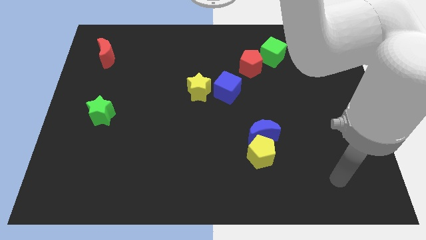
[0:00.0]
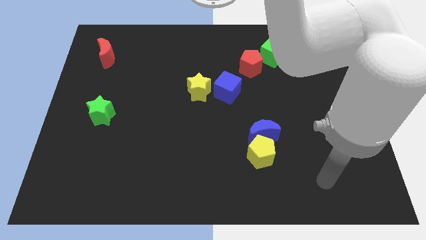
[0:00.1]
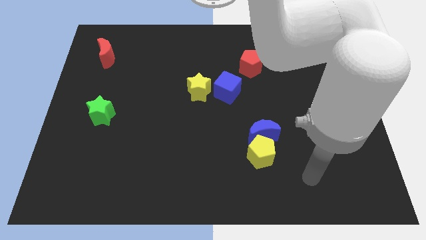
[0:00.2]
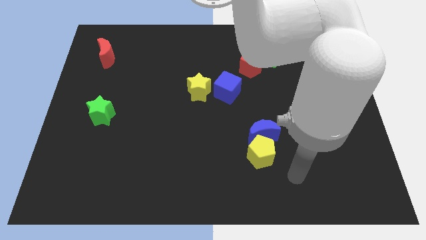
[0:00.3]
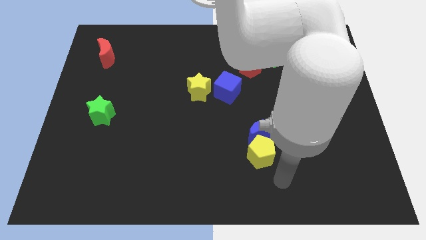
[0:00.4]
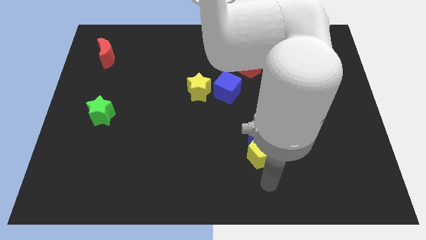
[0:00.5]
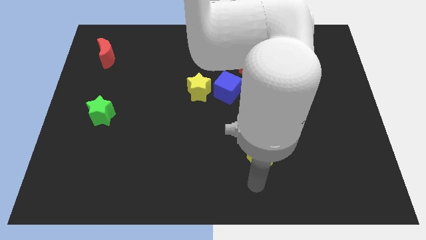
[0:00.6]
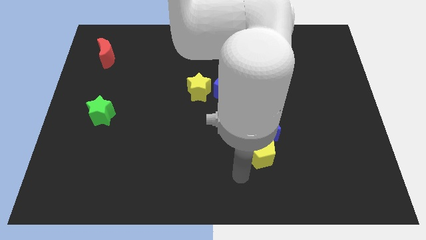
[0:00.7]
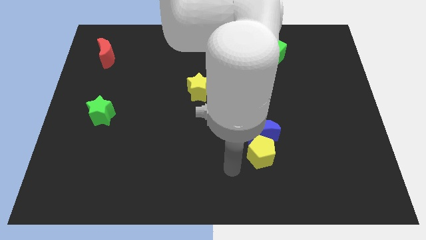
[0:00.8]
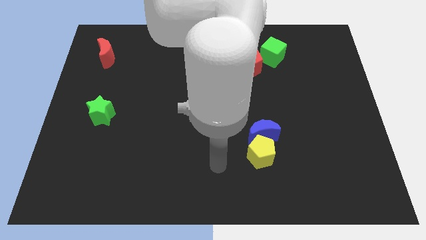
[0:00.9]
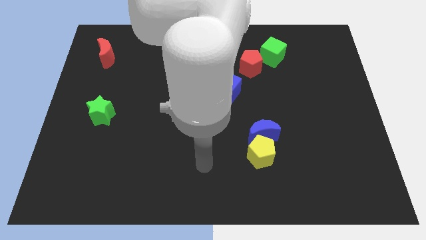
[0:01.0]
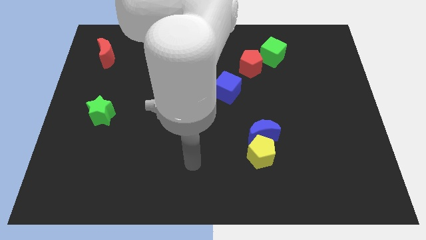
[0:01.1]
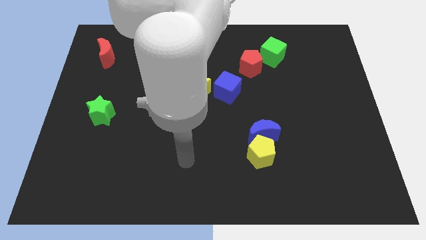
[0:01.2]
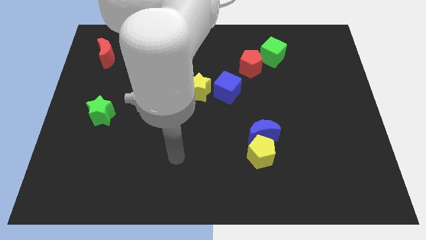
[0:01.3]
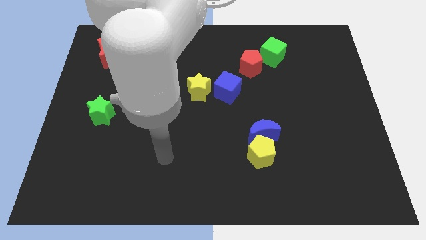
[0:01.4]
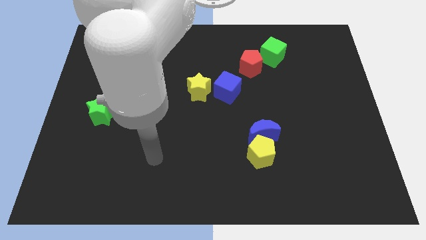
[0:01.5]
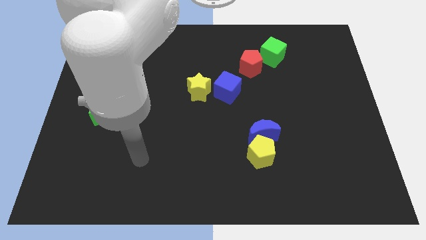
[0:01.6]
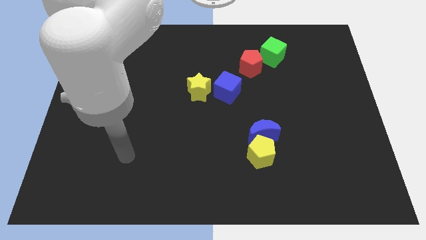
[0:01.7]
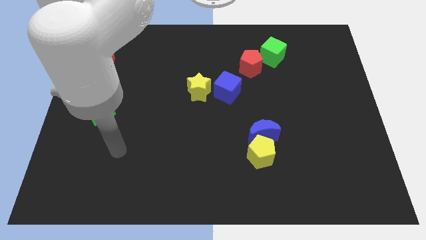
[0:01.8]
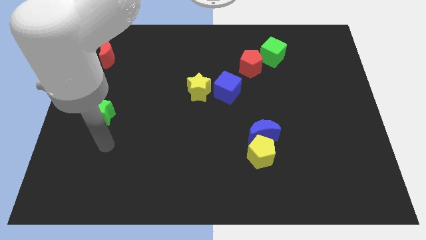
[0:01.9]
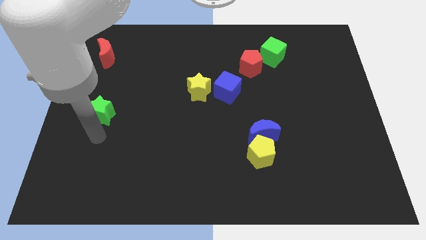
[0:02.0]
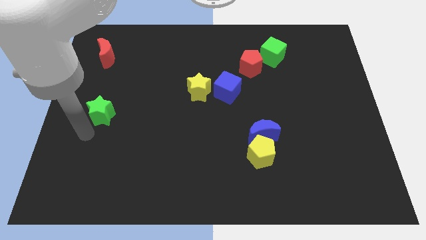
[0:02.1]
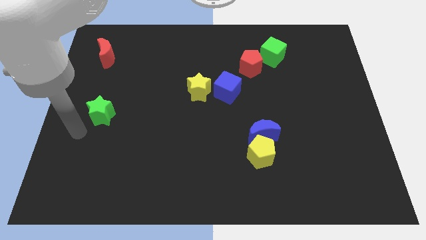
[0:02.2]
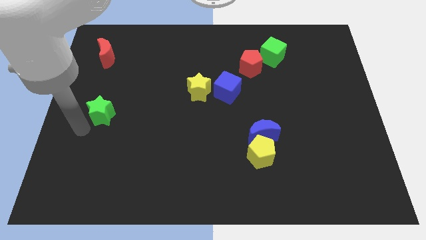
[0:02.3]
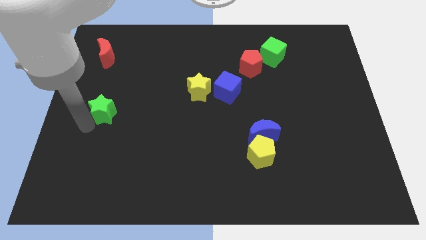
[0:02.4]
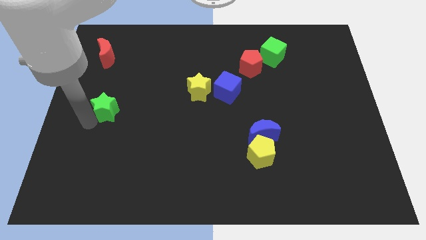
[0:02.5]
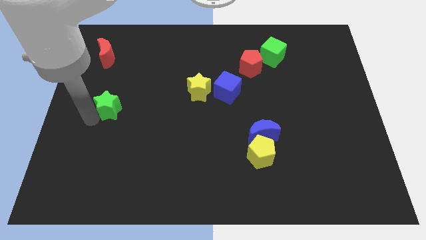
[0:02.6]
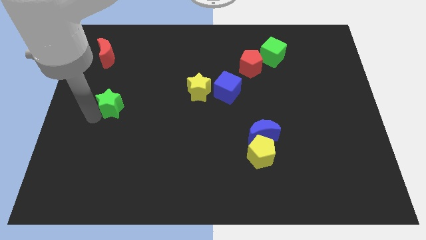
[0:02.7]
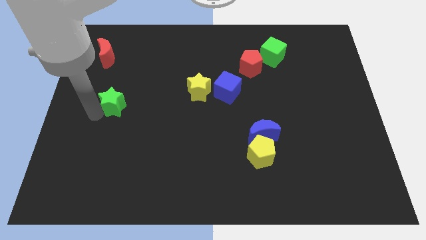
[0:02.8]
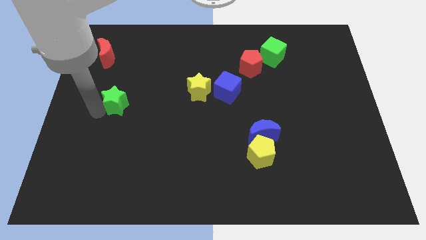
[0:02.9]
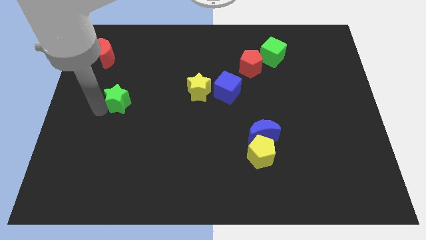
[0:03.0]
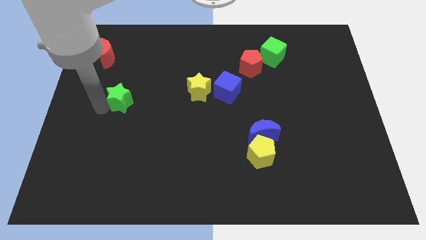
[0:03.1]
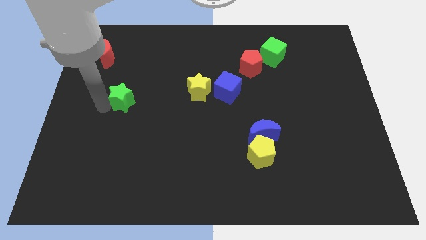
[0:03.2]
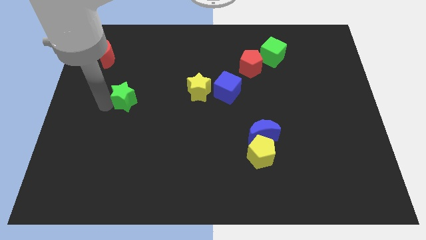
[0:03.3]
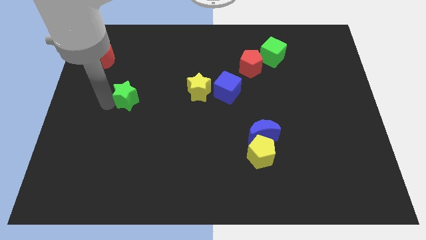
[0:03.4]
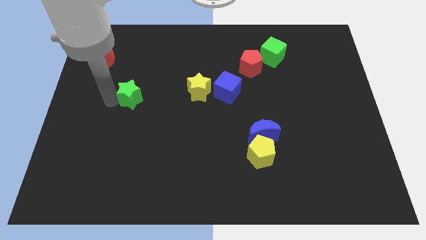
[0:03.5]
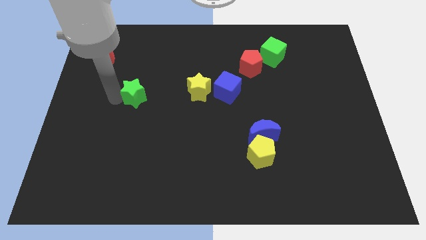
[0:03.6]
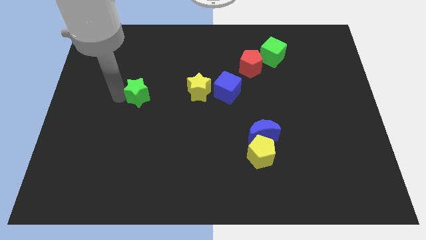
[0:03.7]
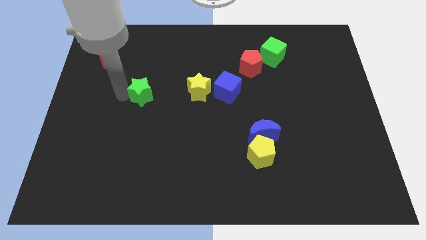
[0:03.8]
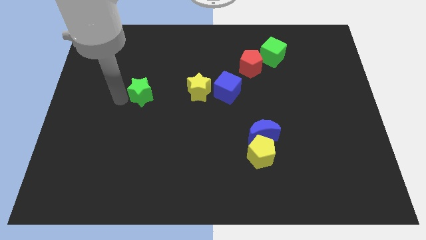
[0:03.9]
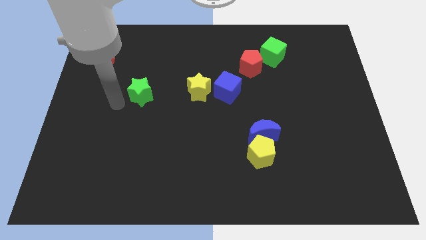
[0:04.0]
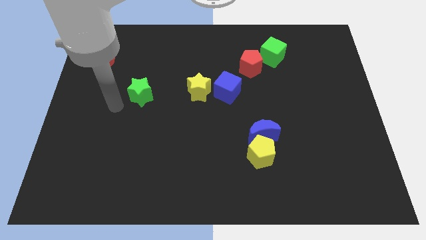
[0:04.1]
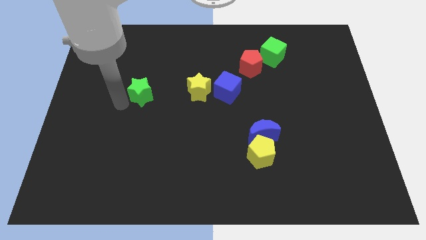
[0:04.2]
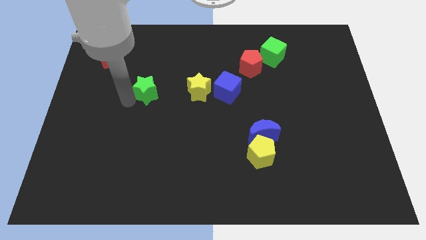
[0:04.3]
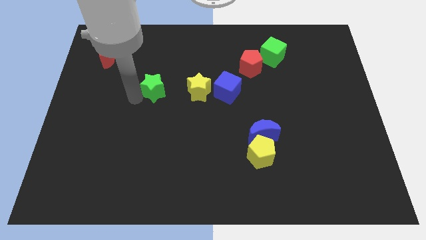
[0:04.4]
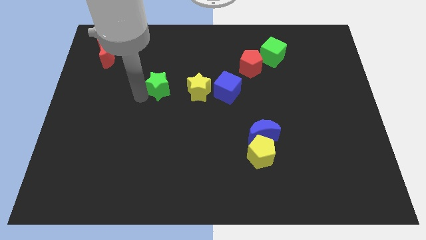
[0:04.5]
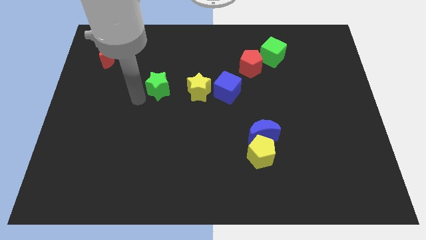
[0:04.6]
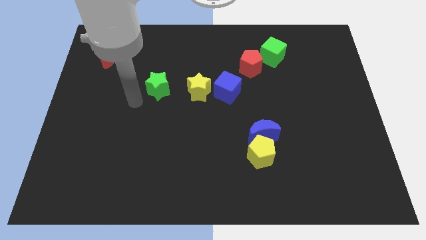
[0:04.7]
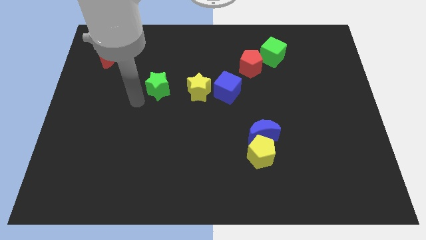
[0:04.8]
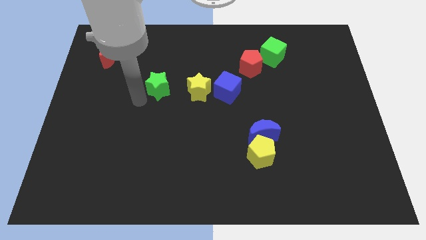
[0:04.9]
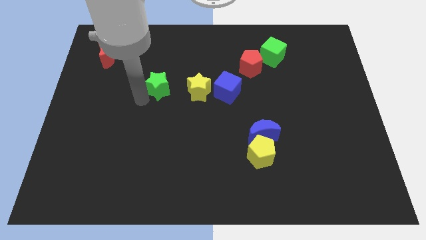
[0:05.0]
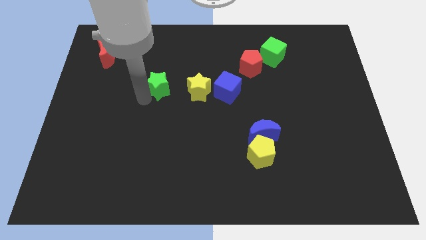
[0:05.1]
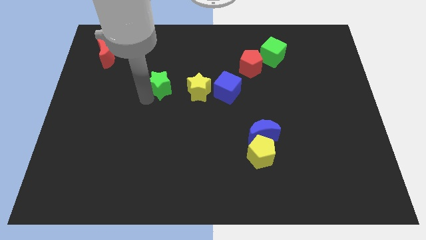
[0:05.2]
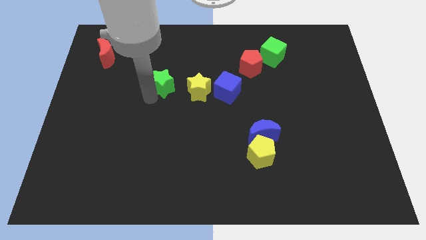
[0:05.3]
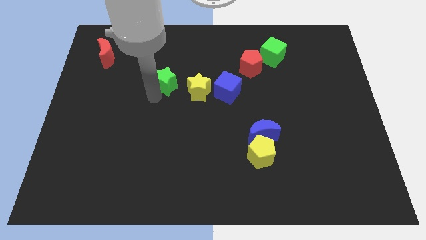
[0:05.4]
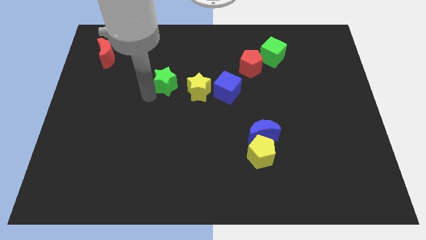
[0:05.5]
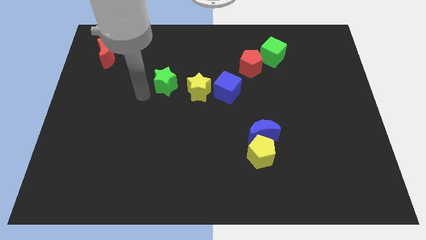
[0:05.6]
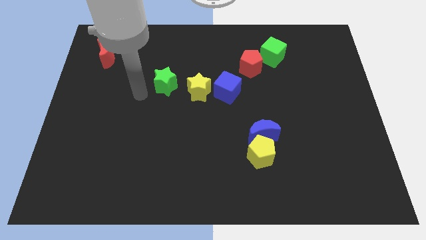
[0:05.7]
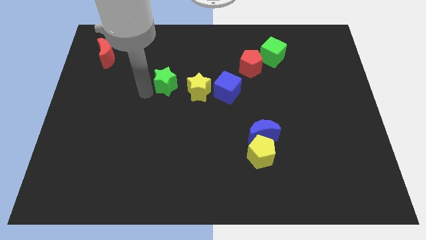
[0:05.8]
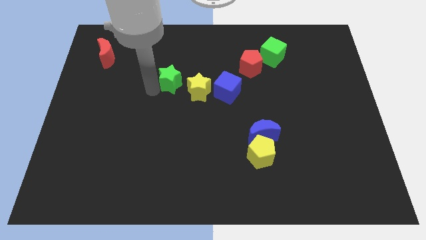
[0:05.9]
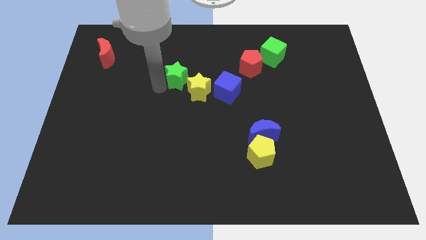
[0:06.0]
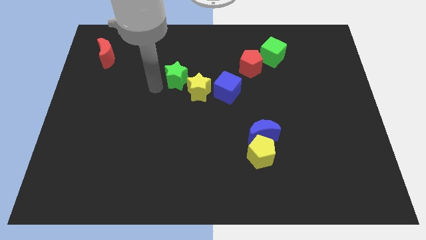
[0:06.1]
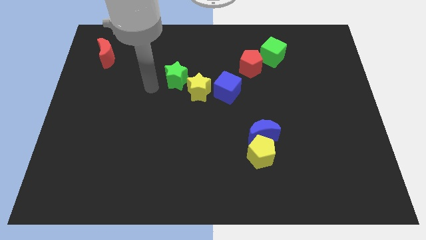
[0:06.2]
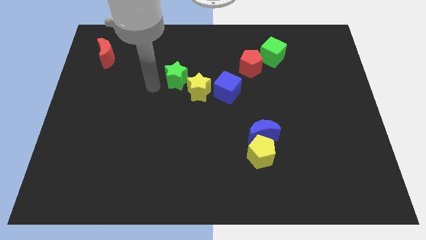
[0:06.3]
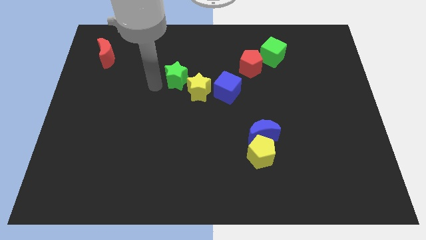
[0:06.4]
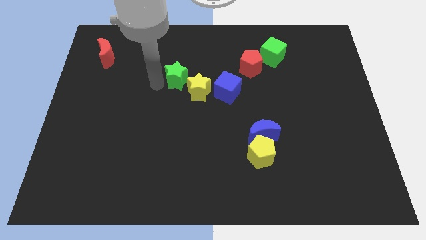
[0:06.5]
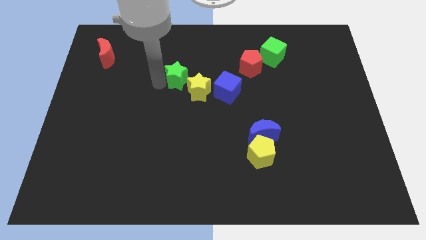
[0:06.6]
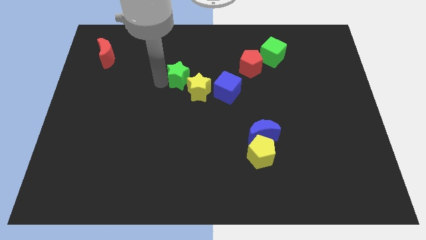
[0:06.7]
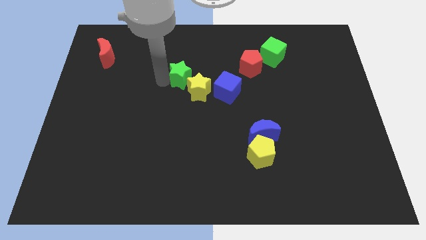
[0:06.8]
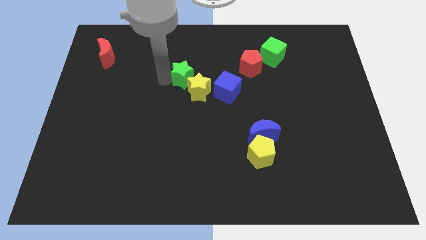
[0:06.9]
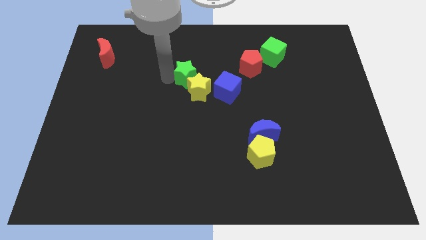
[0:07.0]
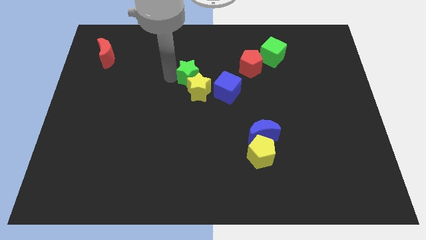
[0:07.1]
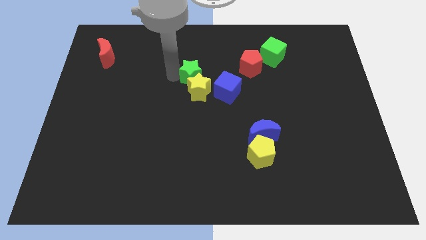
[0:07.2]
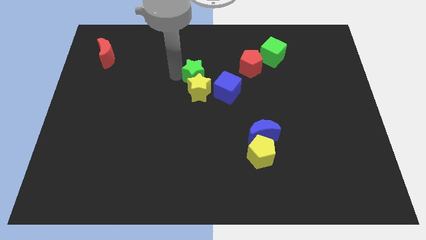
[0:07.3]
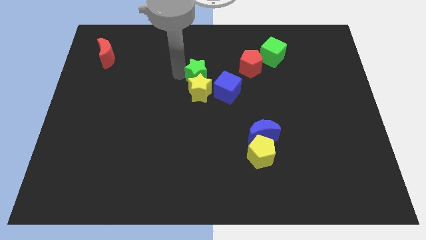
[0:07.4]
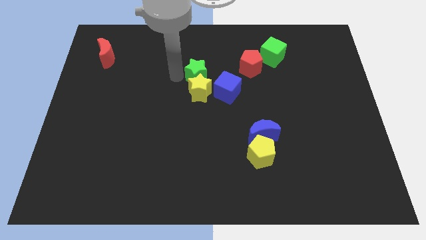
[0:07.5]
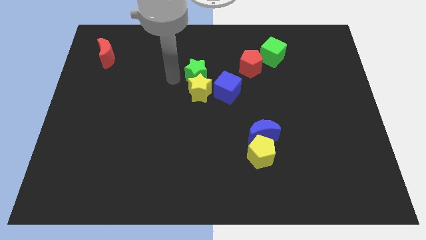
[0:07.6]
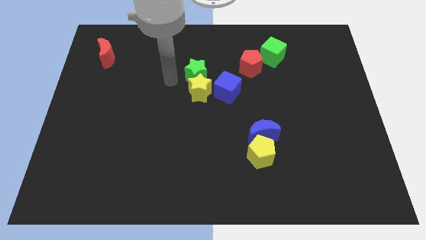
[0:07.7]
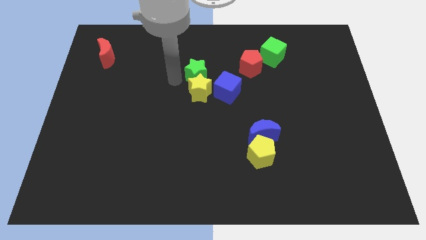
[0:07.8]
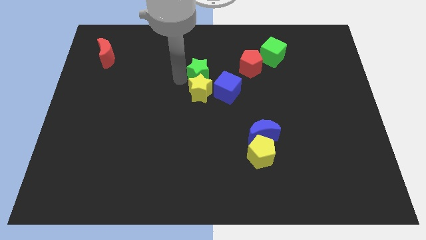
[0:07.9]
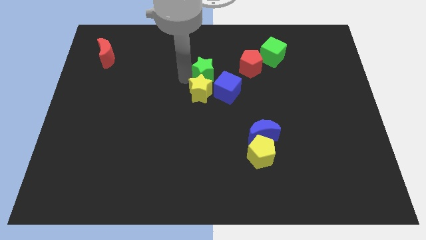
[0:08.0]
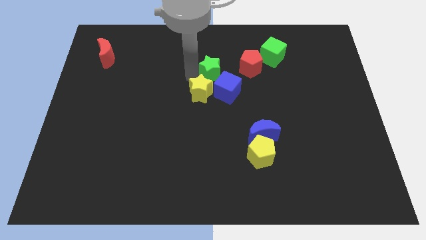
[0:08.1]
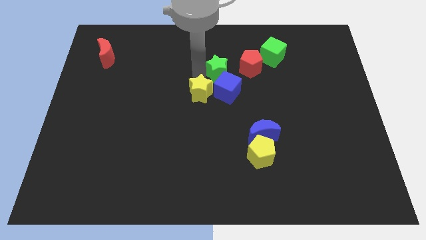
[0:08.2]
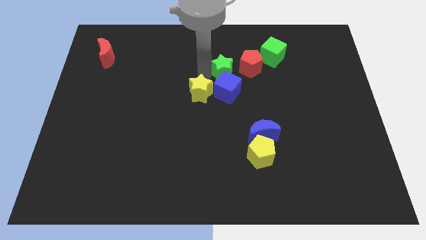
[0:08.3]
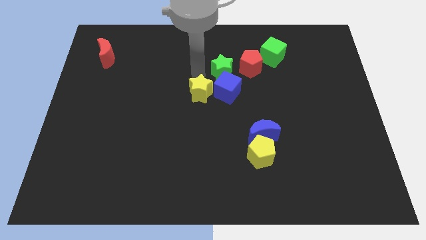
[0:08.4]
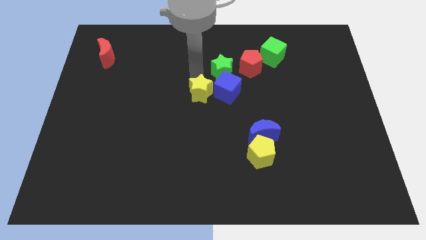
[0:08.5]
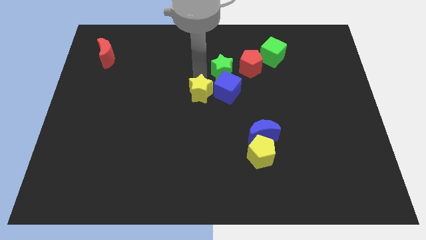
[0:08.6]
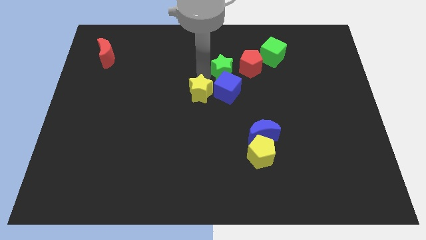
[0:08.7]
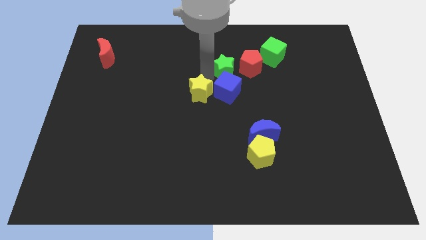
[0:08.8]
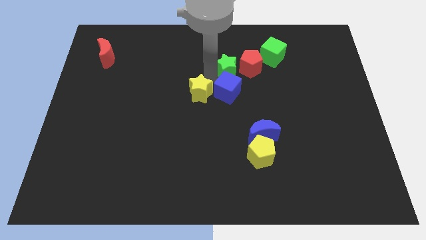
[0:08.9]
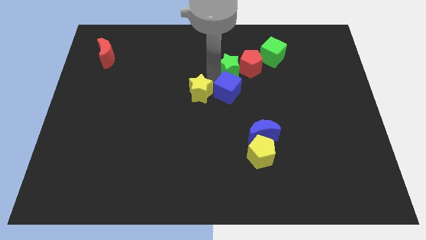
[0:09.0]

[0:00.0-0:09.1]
put the green star close to the red pentagon
